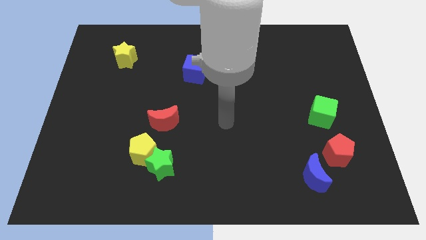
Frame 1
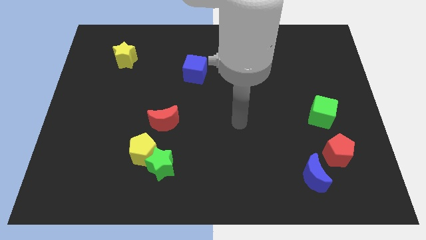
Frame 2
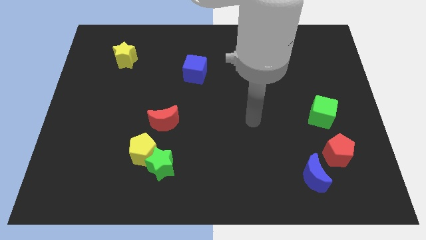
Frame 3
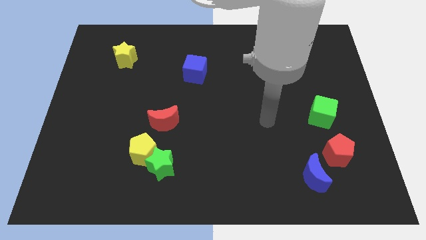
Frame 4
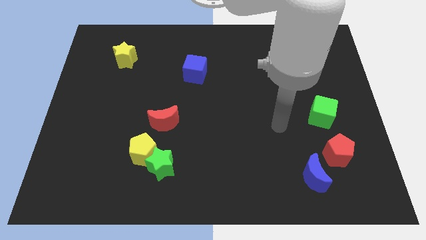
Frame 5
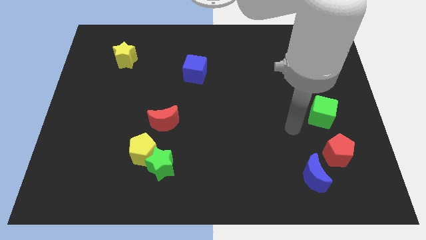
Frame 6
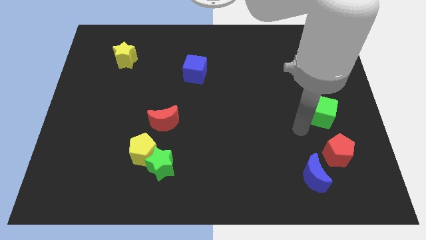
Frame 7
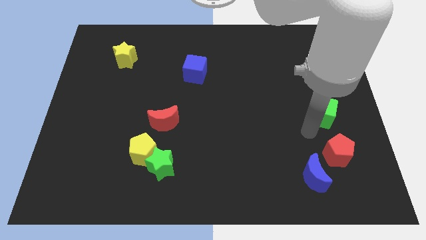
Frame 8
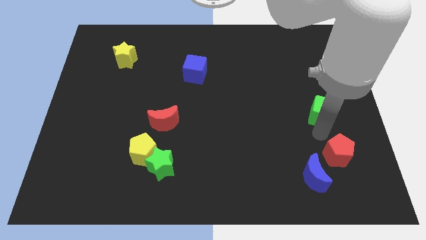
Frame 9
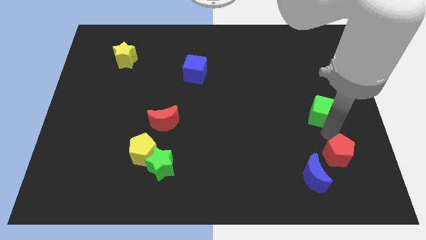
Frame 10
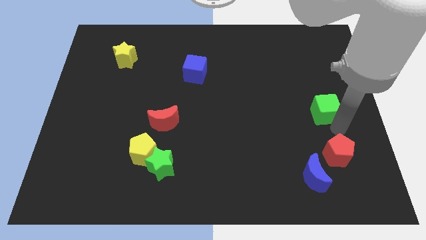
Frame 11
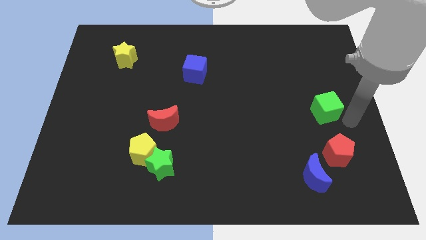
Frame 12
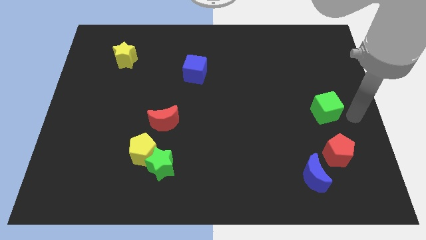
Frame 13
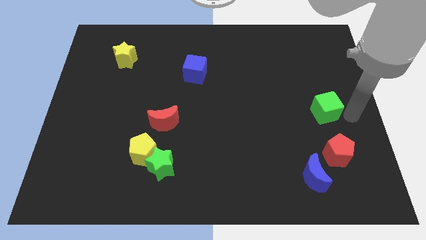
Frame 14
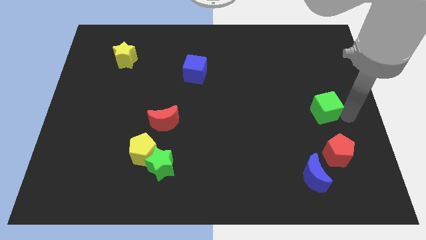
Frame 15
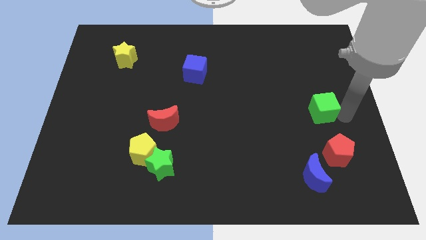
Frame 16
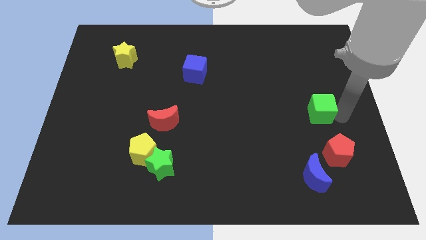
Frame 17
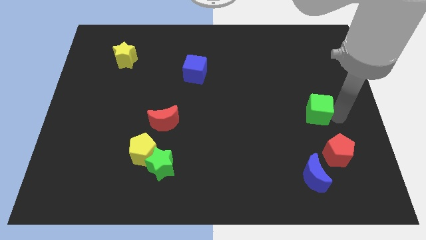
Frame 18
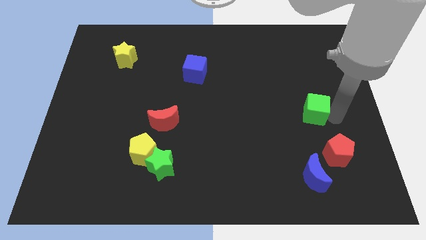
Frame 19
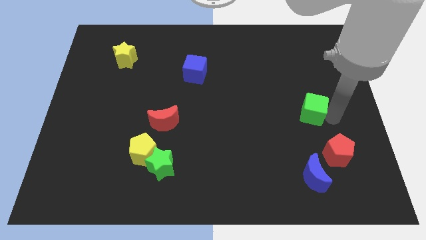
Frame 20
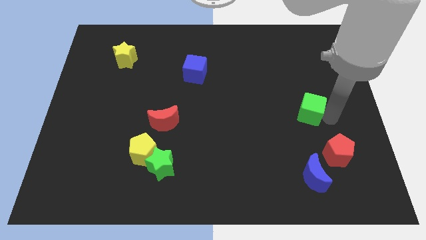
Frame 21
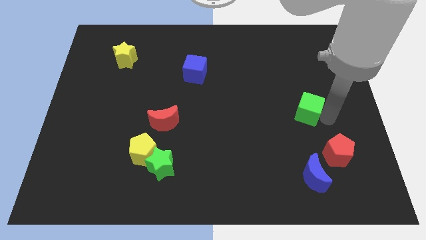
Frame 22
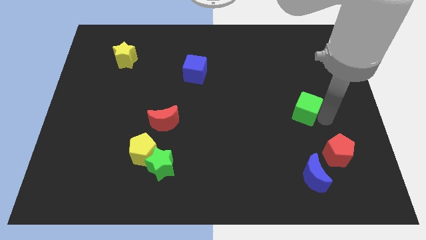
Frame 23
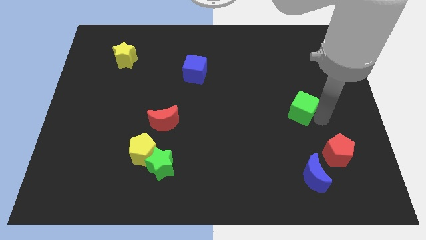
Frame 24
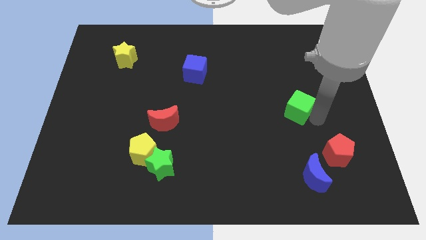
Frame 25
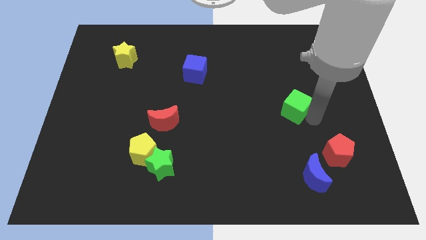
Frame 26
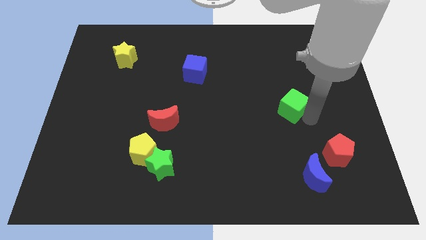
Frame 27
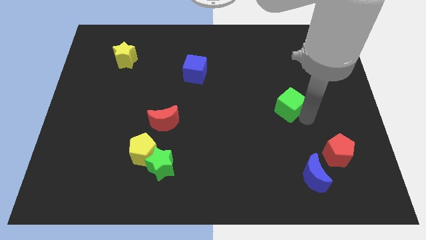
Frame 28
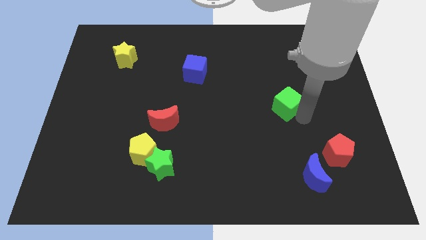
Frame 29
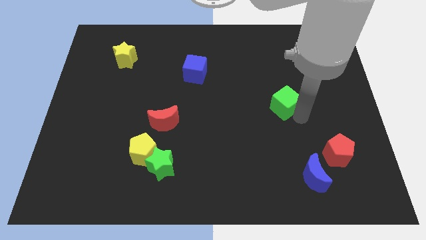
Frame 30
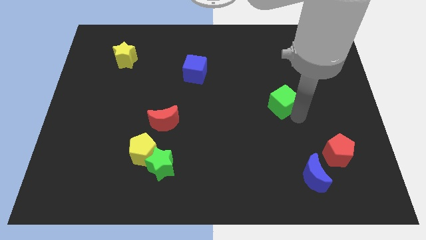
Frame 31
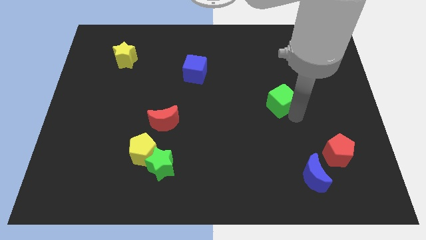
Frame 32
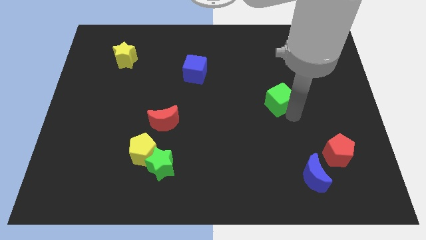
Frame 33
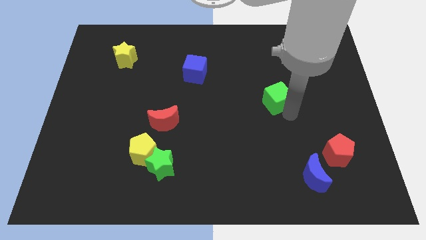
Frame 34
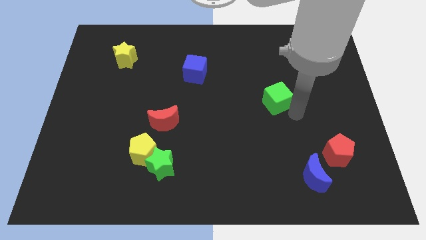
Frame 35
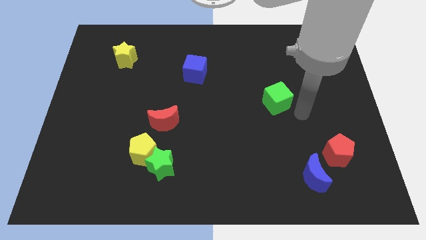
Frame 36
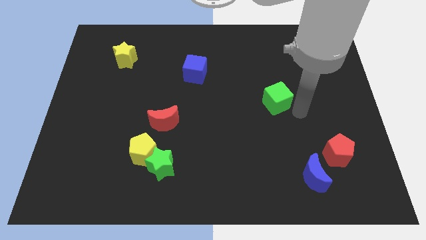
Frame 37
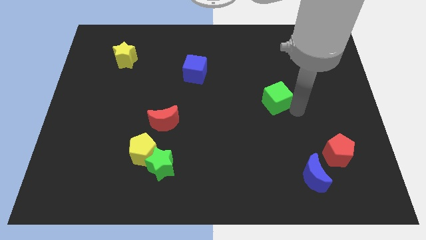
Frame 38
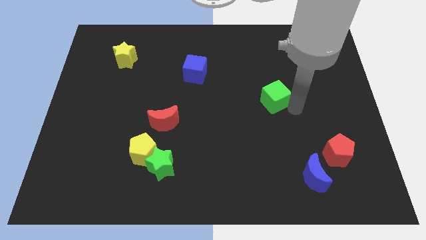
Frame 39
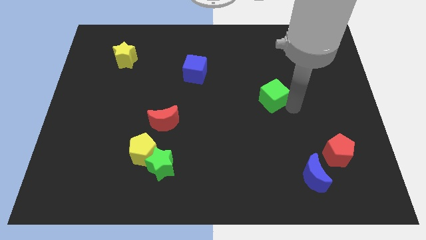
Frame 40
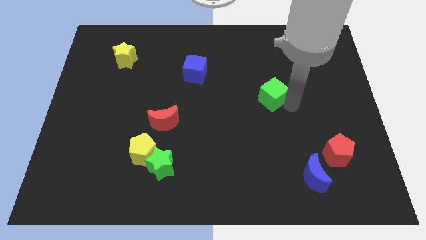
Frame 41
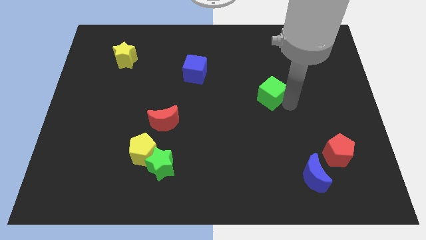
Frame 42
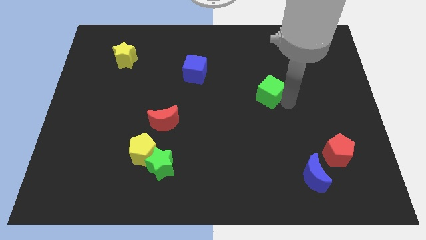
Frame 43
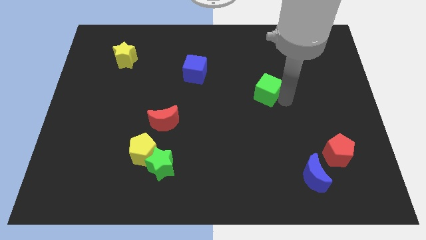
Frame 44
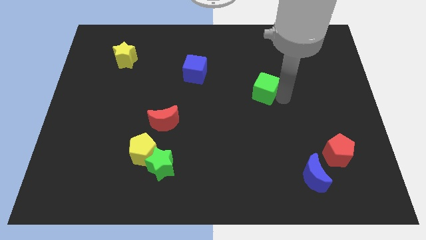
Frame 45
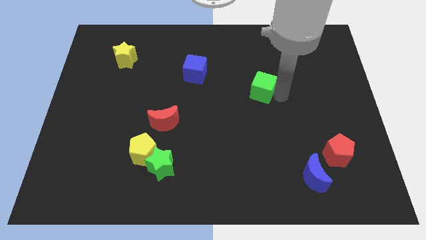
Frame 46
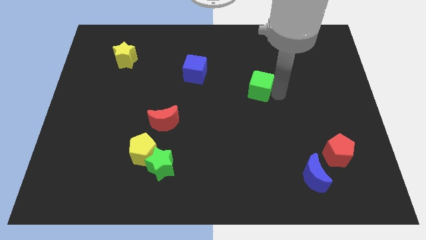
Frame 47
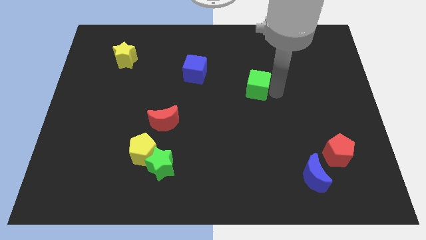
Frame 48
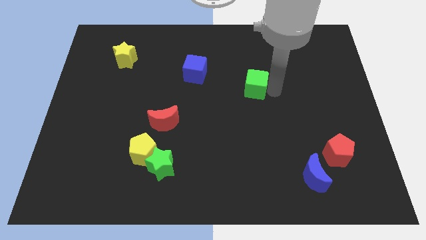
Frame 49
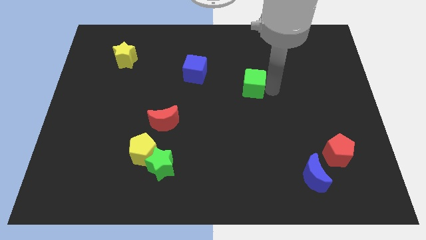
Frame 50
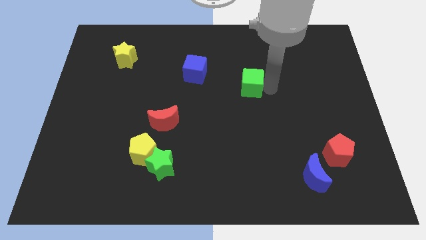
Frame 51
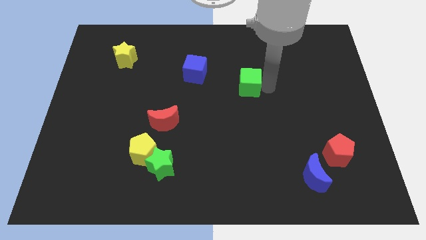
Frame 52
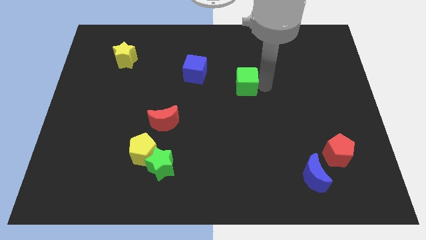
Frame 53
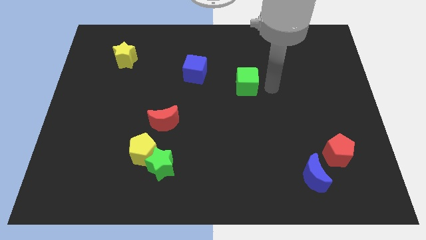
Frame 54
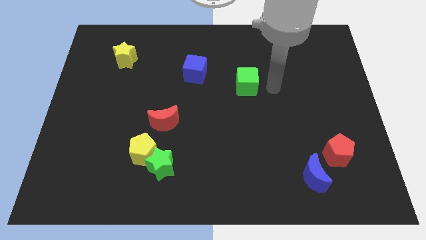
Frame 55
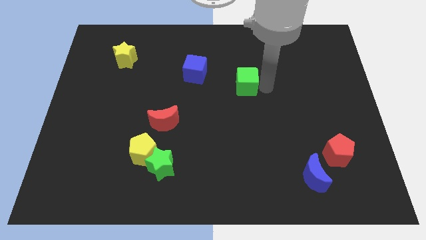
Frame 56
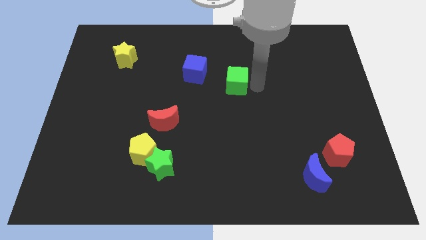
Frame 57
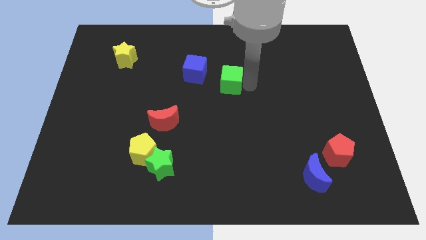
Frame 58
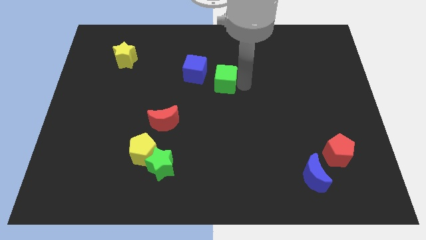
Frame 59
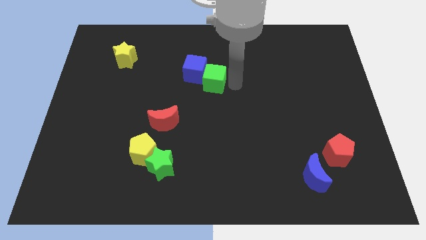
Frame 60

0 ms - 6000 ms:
move the green cube towards the blue cube
